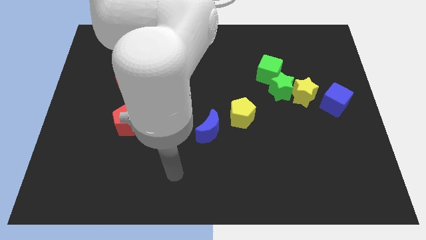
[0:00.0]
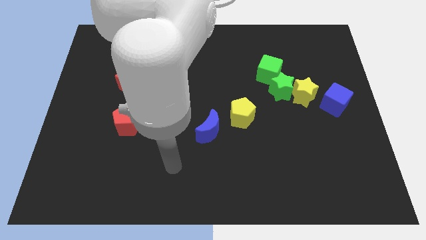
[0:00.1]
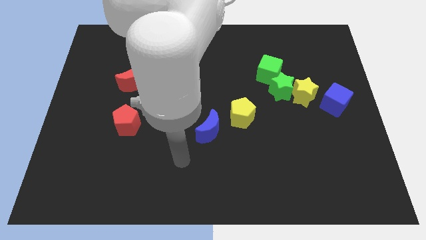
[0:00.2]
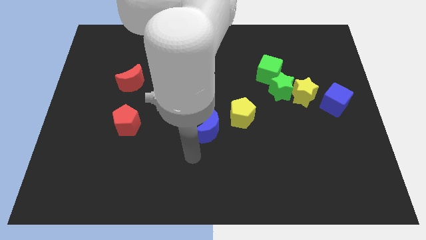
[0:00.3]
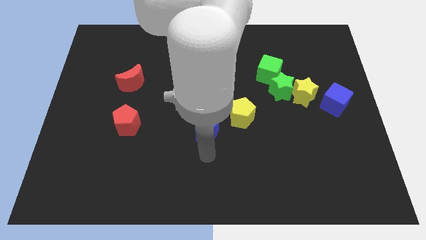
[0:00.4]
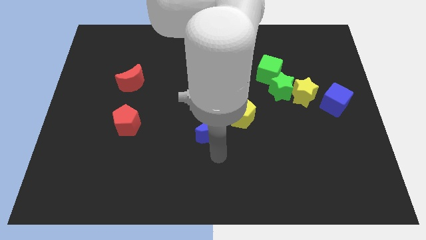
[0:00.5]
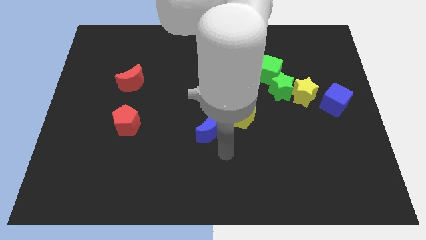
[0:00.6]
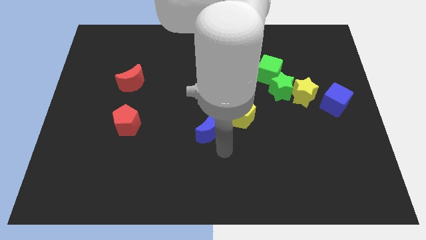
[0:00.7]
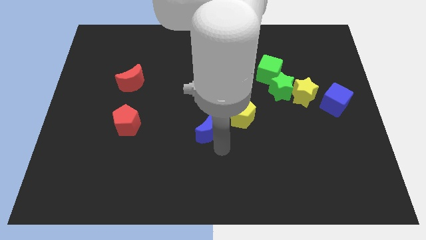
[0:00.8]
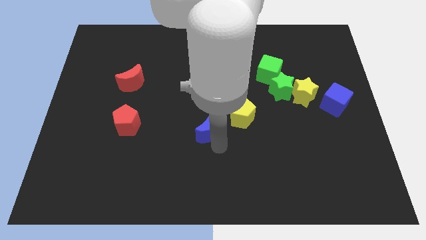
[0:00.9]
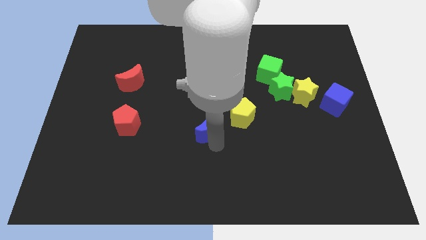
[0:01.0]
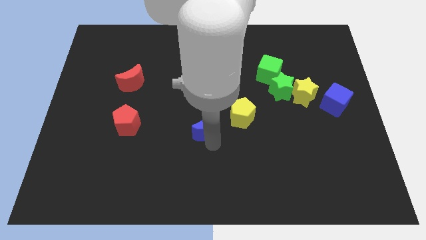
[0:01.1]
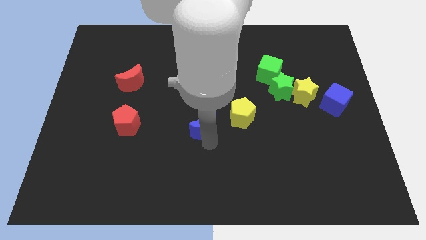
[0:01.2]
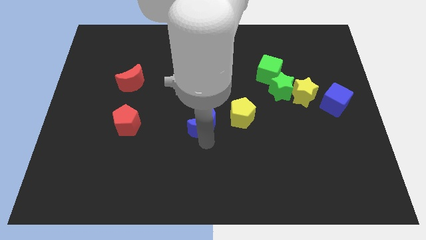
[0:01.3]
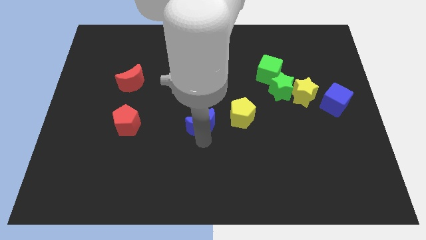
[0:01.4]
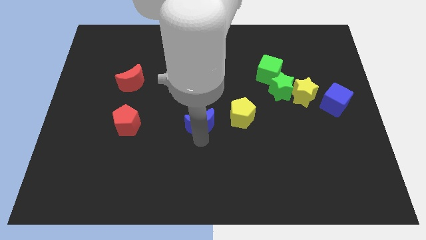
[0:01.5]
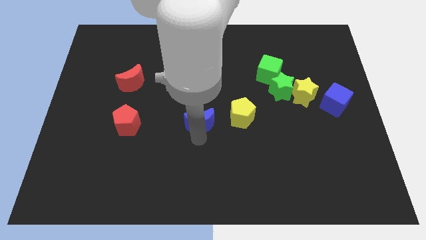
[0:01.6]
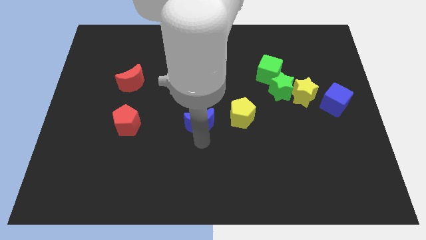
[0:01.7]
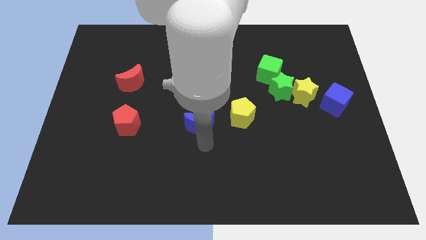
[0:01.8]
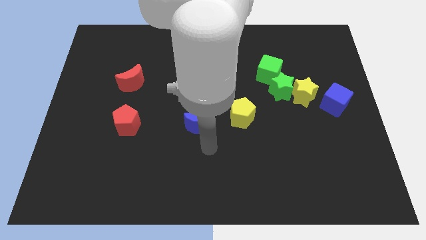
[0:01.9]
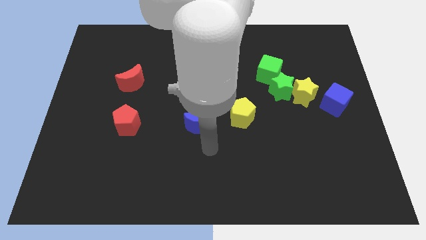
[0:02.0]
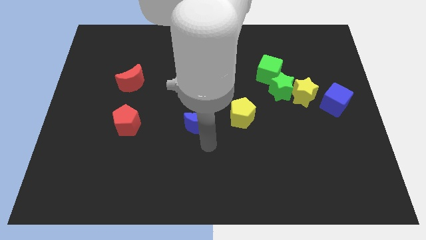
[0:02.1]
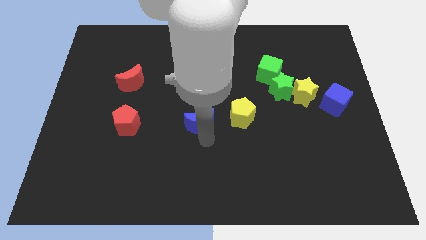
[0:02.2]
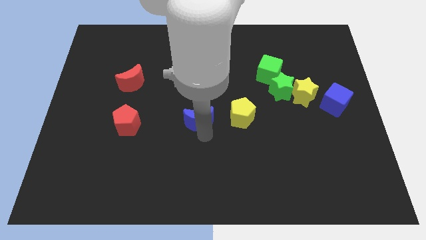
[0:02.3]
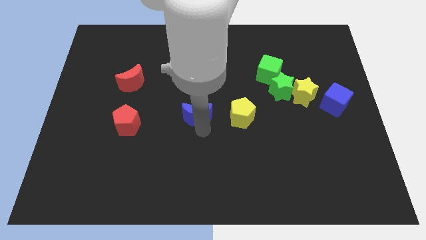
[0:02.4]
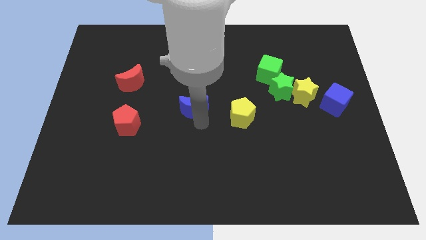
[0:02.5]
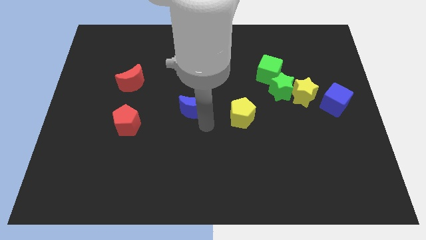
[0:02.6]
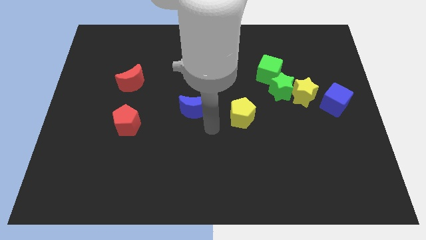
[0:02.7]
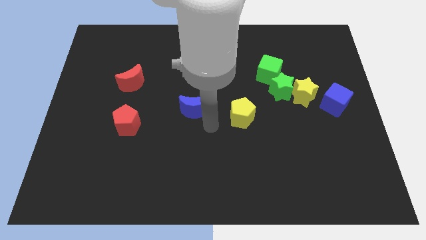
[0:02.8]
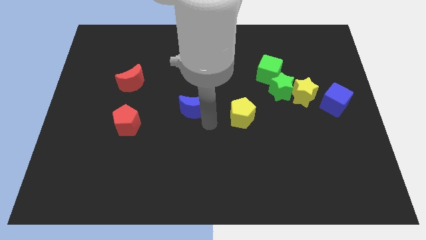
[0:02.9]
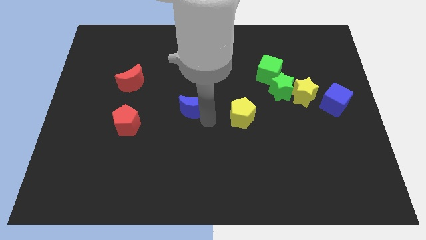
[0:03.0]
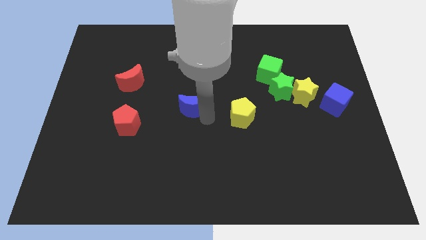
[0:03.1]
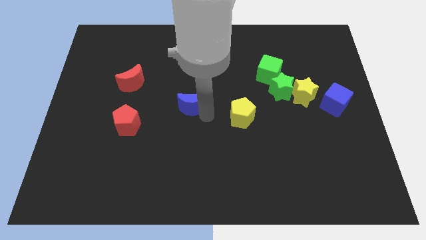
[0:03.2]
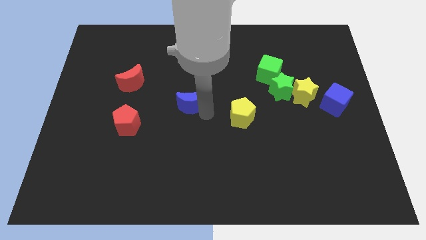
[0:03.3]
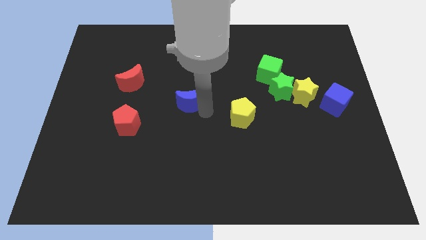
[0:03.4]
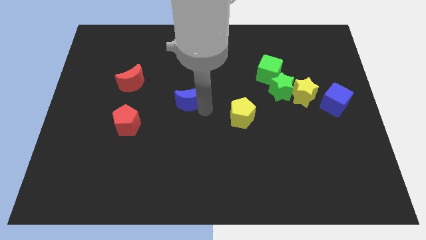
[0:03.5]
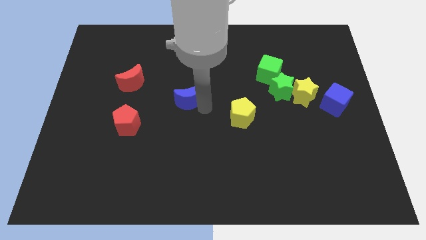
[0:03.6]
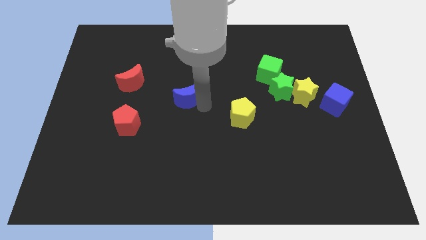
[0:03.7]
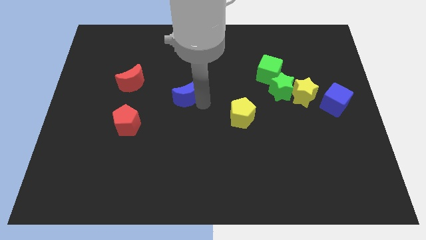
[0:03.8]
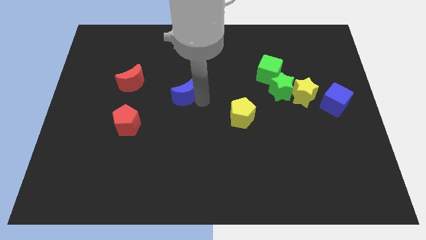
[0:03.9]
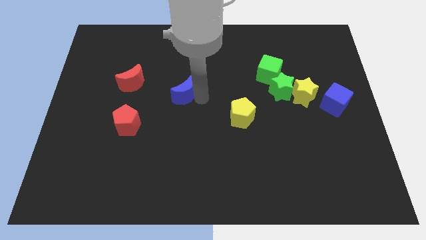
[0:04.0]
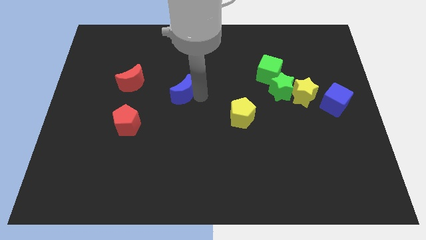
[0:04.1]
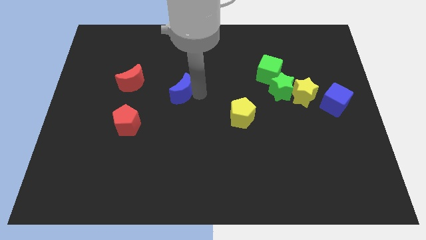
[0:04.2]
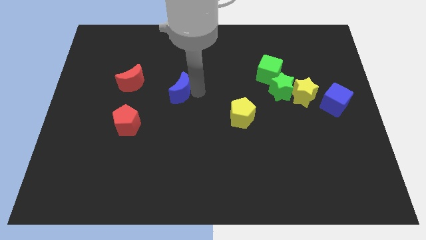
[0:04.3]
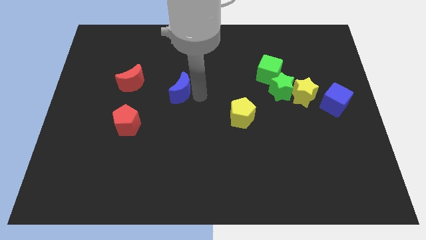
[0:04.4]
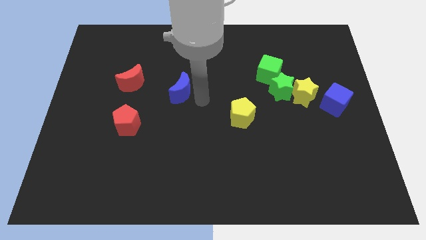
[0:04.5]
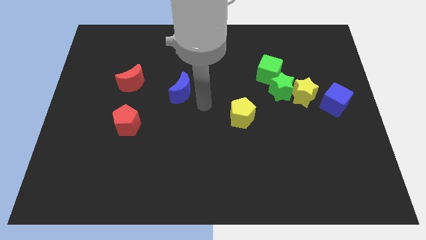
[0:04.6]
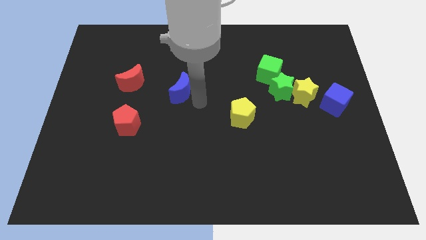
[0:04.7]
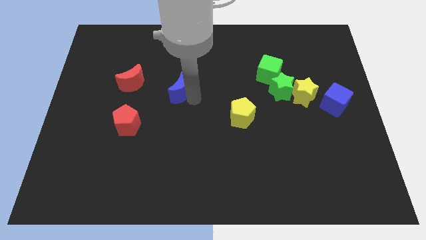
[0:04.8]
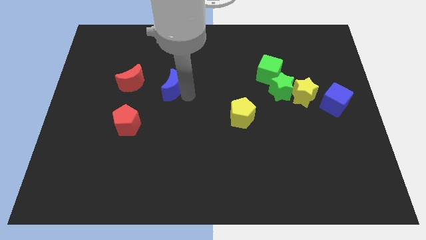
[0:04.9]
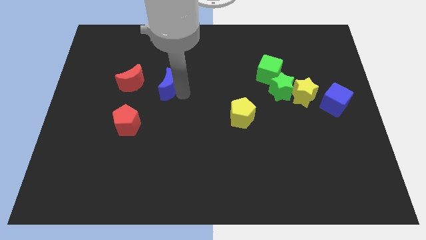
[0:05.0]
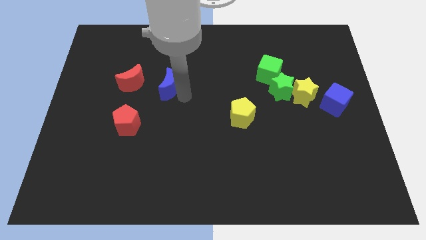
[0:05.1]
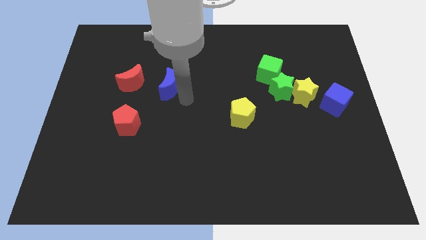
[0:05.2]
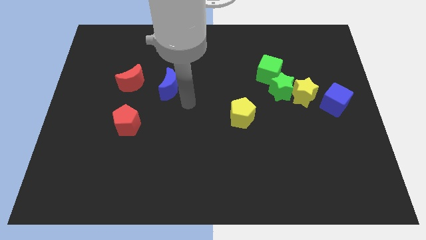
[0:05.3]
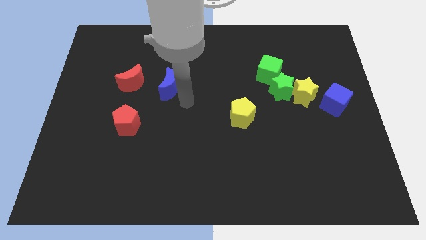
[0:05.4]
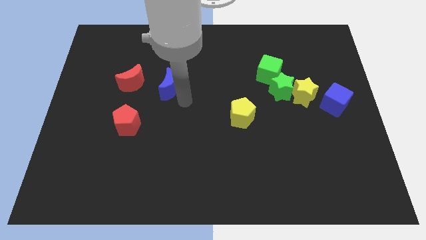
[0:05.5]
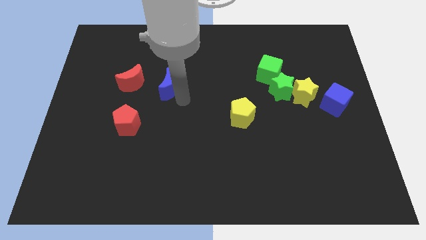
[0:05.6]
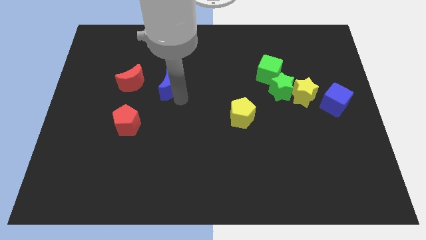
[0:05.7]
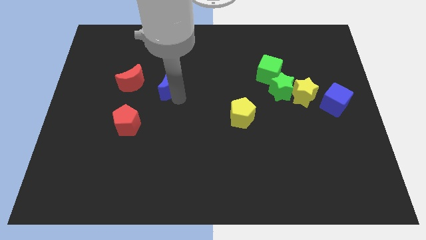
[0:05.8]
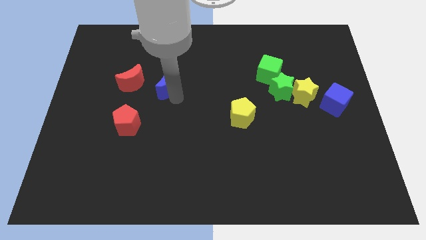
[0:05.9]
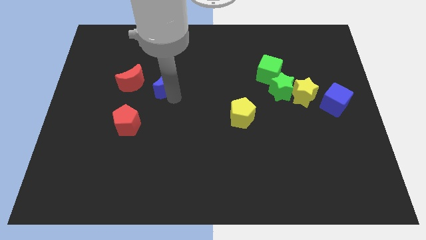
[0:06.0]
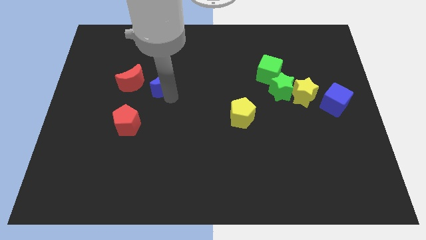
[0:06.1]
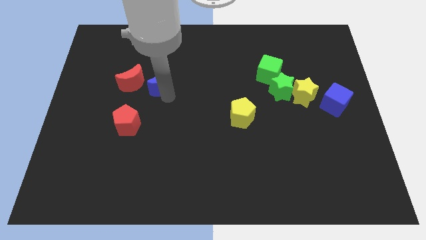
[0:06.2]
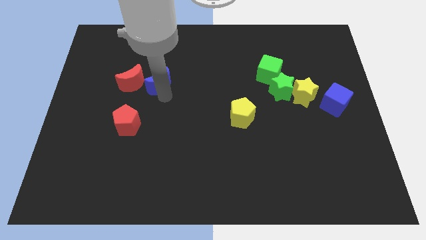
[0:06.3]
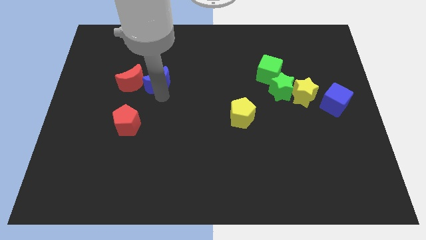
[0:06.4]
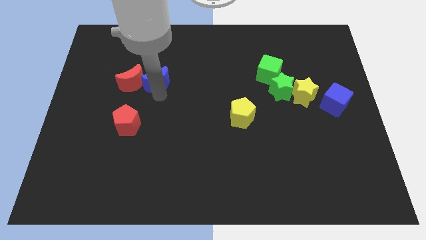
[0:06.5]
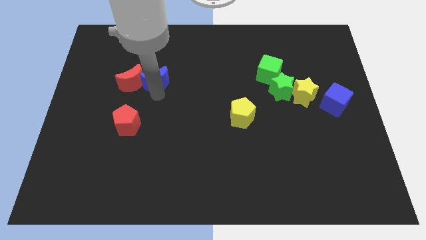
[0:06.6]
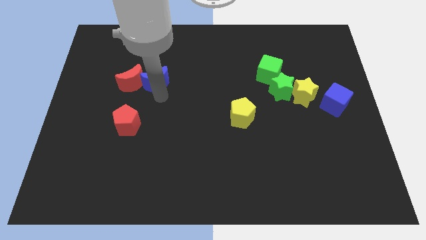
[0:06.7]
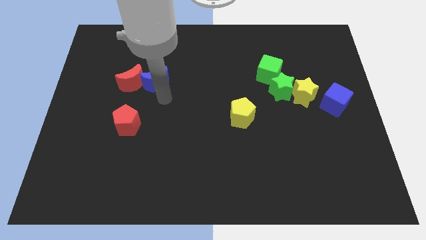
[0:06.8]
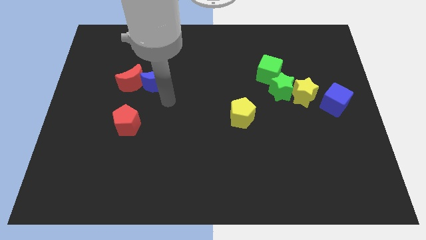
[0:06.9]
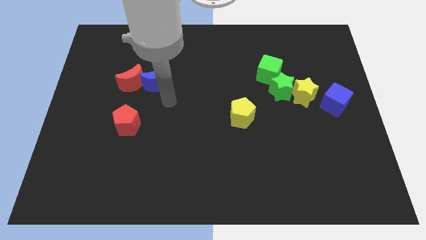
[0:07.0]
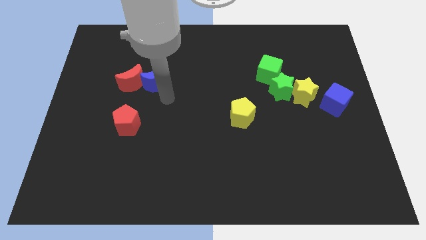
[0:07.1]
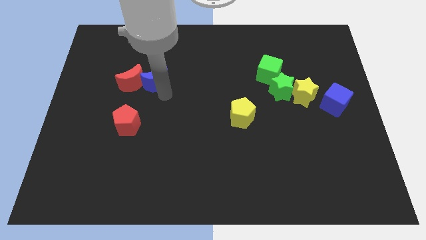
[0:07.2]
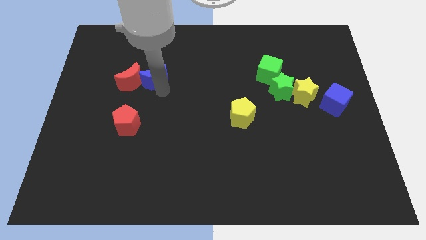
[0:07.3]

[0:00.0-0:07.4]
move the blue moon up and then to the left

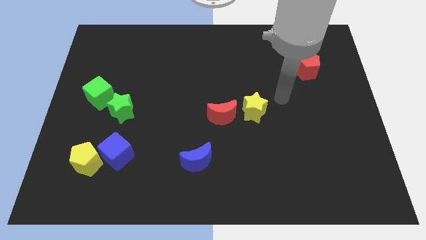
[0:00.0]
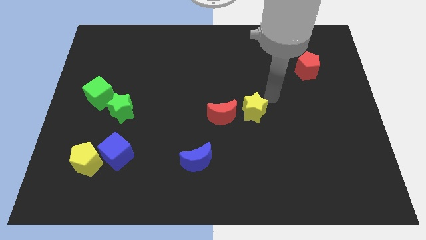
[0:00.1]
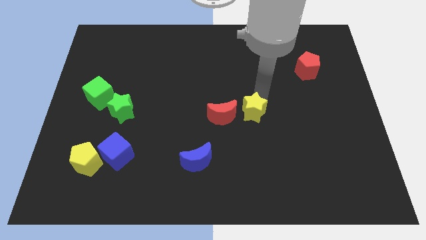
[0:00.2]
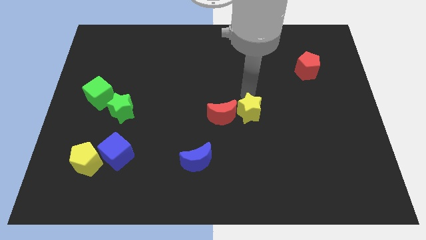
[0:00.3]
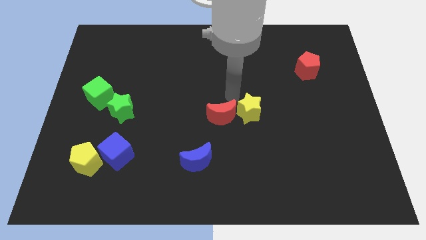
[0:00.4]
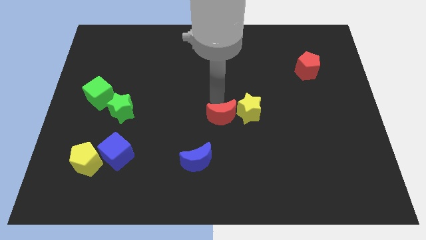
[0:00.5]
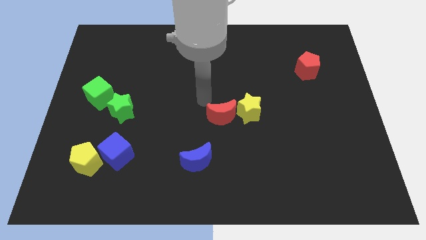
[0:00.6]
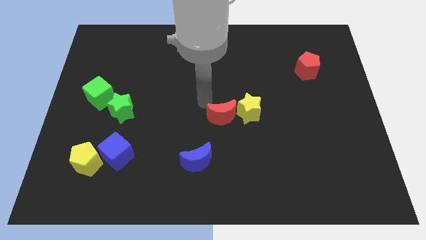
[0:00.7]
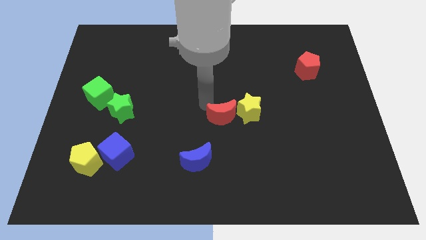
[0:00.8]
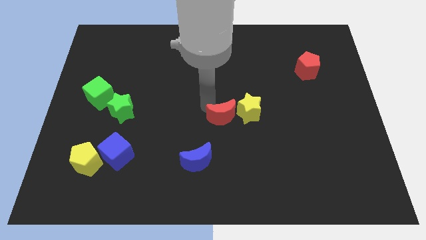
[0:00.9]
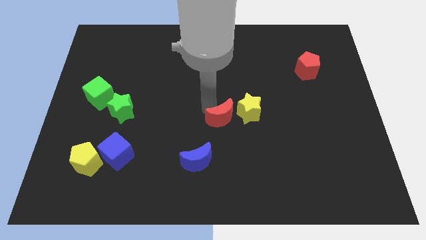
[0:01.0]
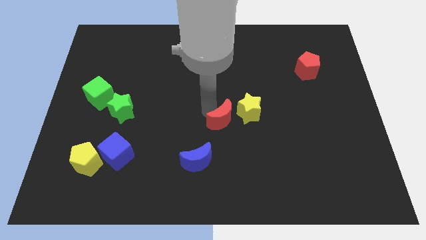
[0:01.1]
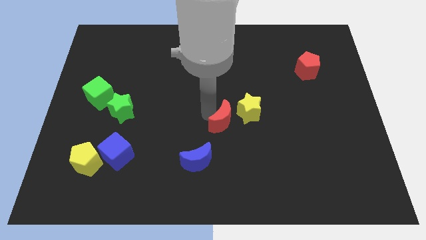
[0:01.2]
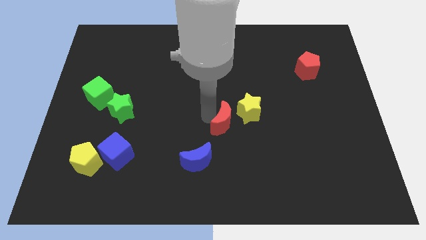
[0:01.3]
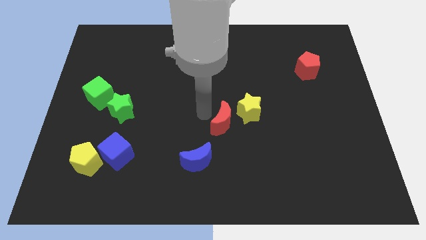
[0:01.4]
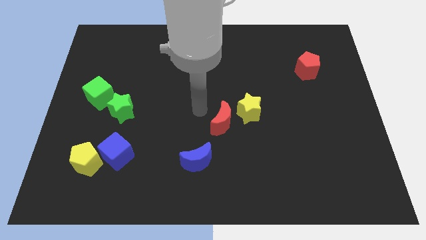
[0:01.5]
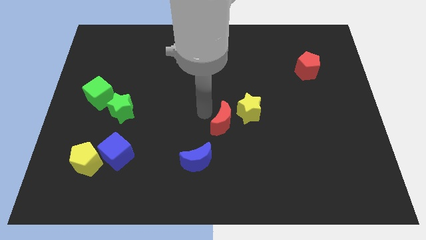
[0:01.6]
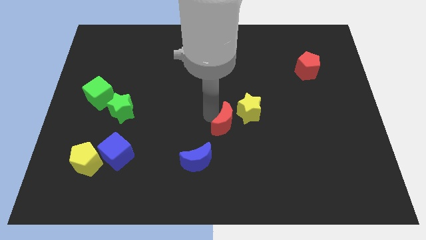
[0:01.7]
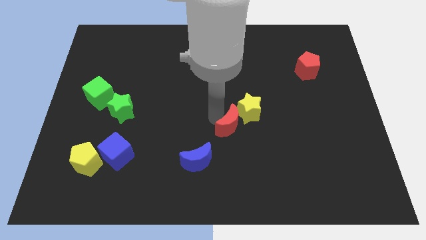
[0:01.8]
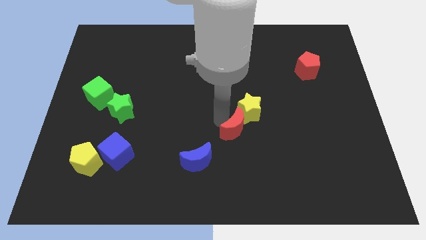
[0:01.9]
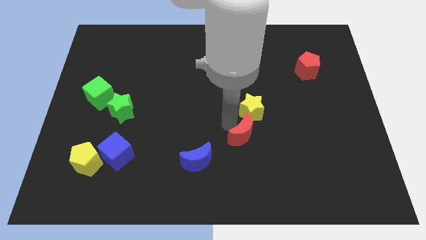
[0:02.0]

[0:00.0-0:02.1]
move the red moon downwards and right diagonally a little
